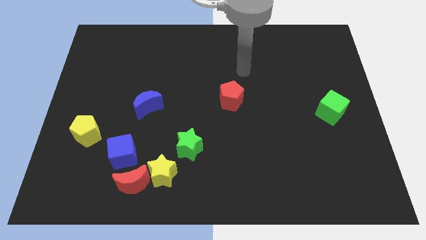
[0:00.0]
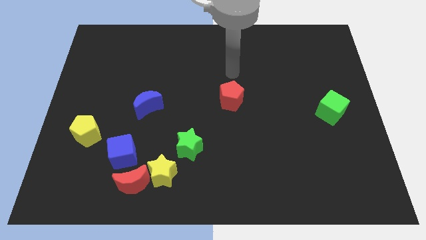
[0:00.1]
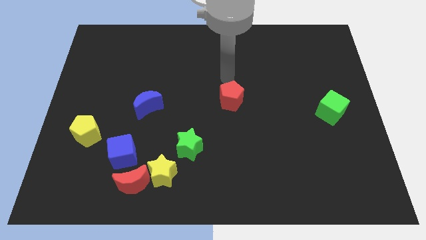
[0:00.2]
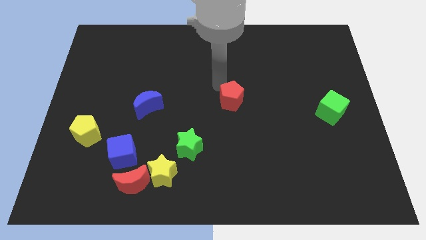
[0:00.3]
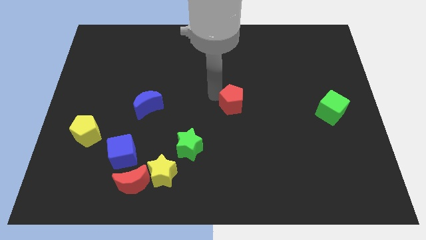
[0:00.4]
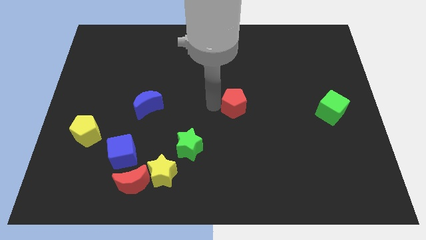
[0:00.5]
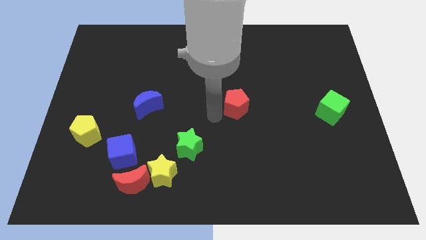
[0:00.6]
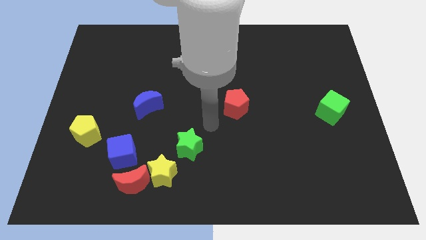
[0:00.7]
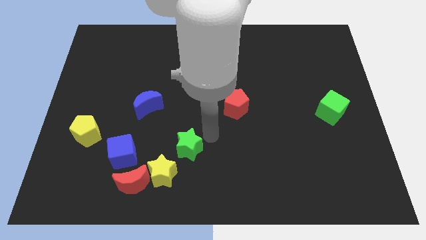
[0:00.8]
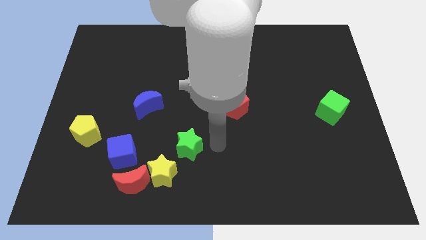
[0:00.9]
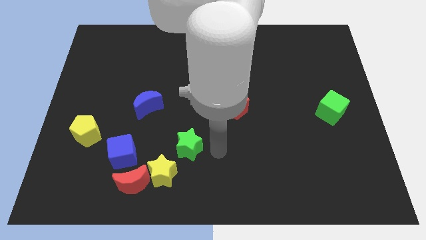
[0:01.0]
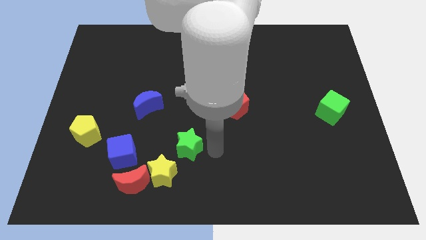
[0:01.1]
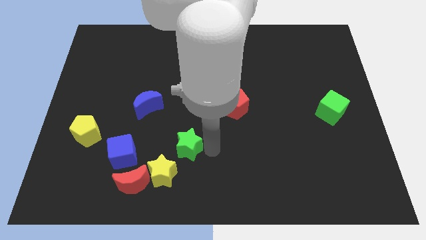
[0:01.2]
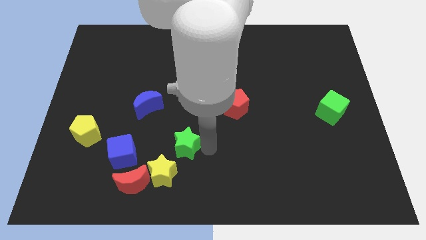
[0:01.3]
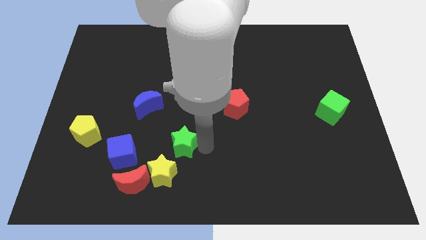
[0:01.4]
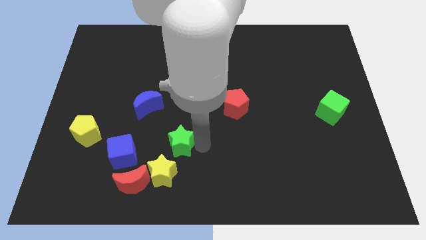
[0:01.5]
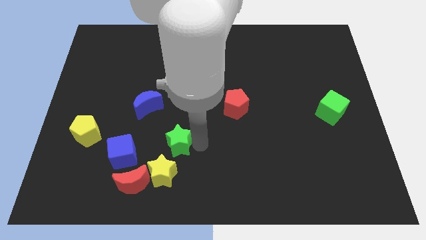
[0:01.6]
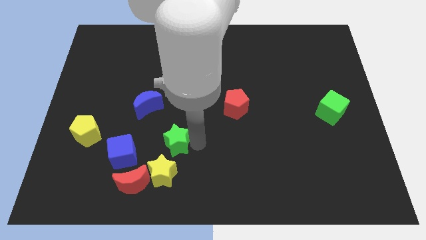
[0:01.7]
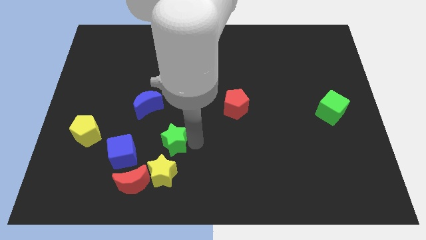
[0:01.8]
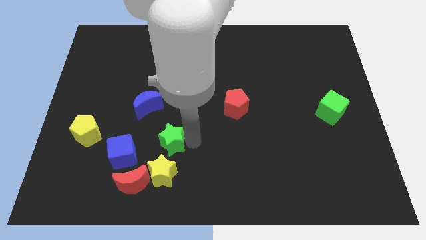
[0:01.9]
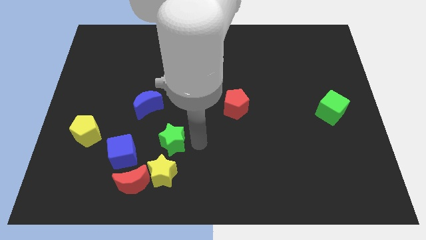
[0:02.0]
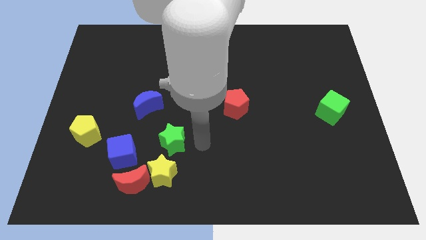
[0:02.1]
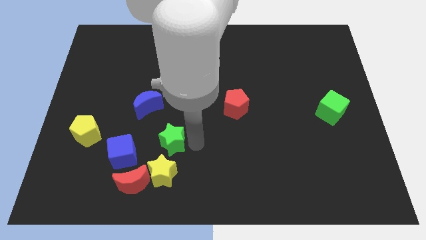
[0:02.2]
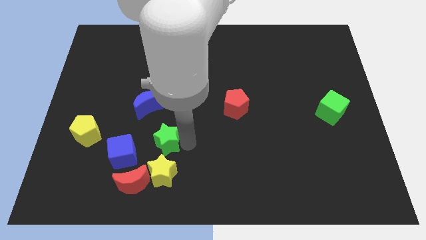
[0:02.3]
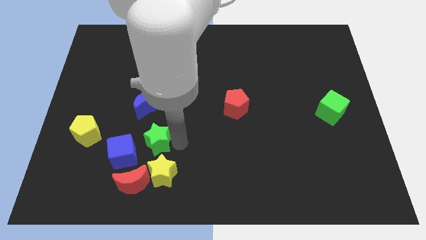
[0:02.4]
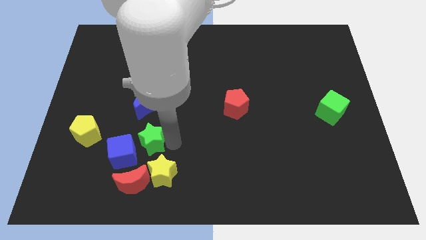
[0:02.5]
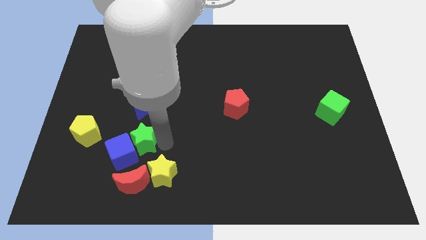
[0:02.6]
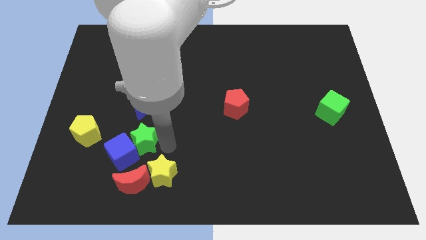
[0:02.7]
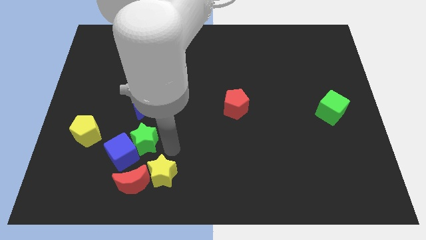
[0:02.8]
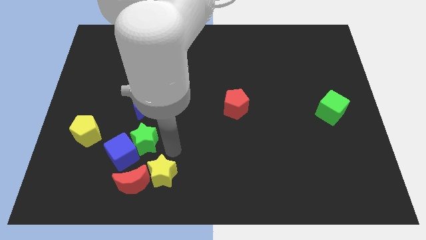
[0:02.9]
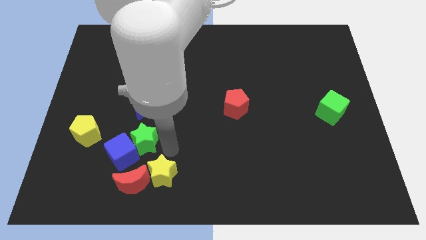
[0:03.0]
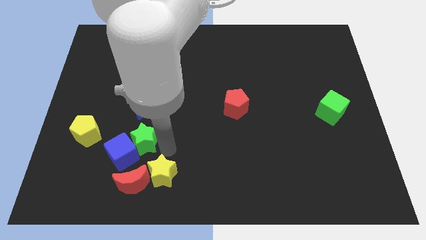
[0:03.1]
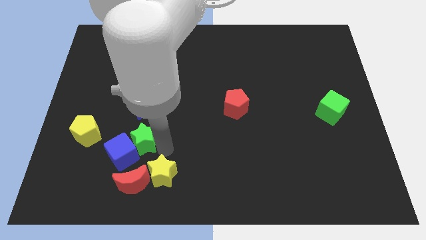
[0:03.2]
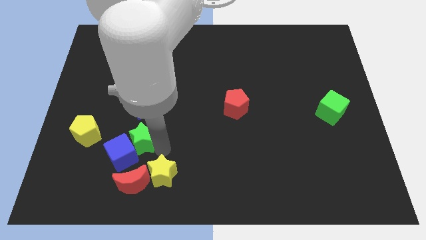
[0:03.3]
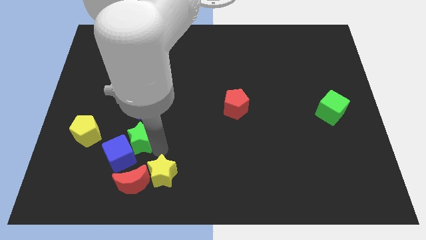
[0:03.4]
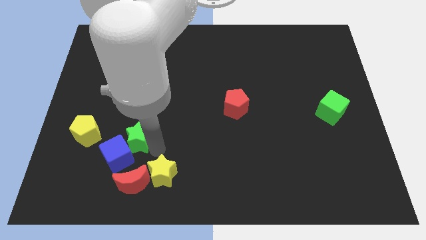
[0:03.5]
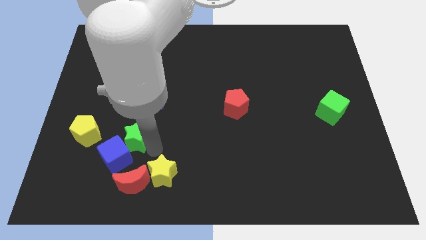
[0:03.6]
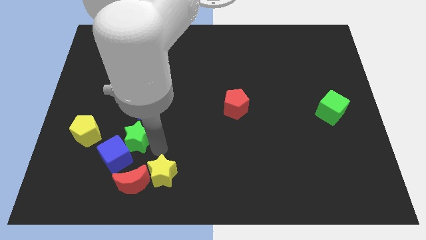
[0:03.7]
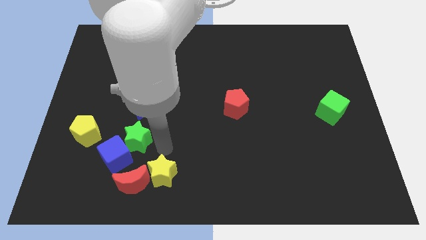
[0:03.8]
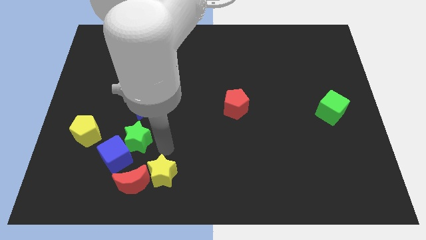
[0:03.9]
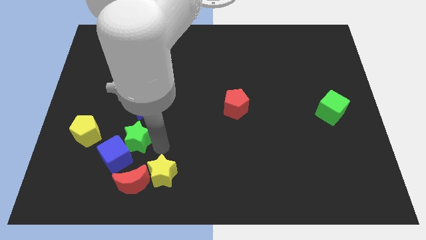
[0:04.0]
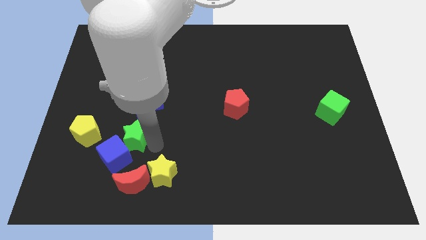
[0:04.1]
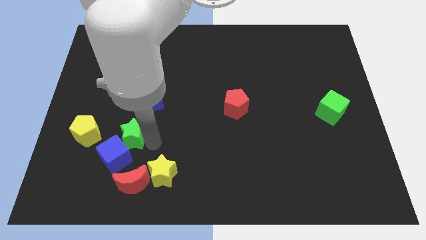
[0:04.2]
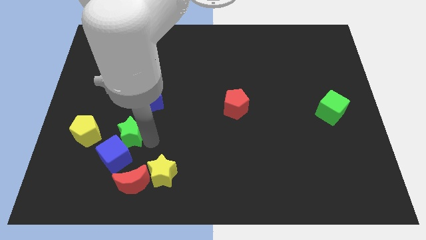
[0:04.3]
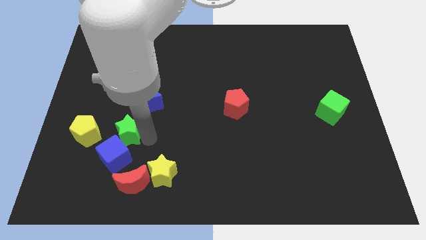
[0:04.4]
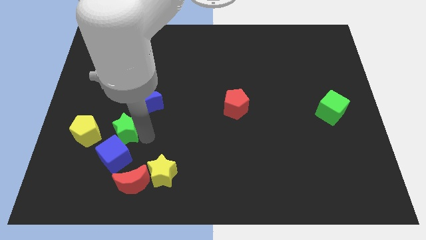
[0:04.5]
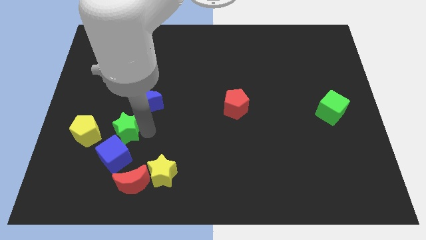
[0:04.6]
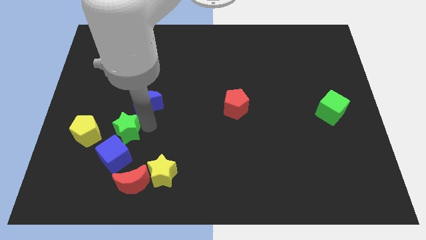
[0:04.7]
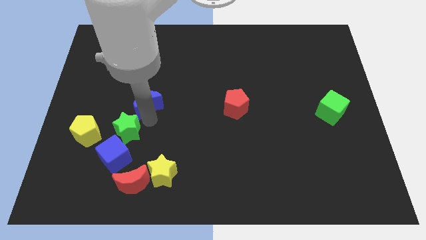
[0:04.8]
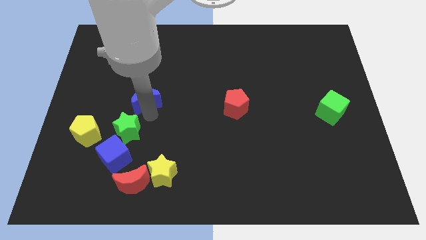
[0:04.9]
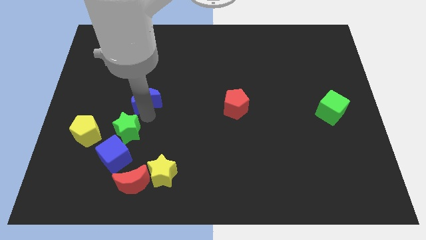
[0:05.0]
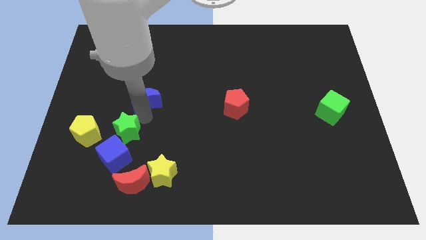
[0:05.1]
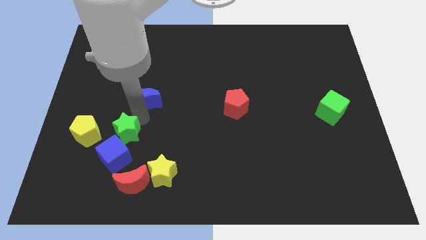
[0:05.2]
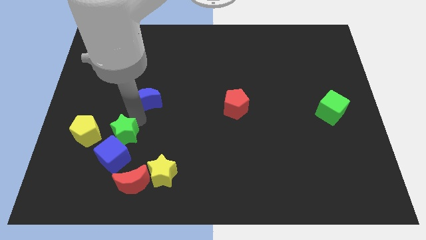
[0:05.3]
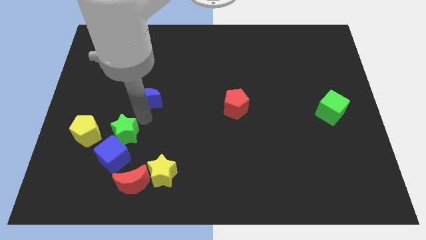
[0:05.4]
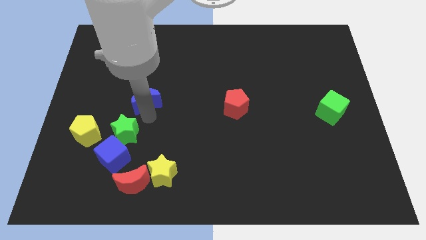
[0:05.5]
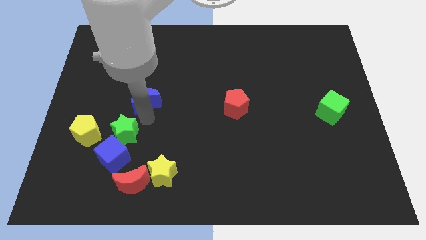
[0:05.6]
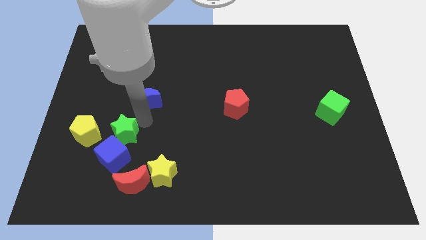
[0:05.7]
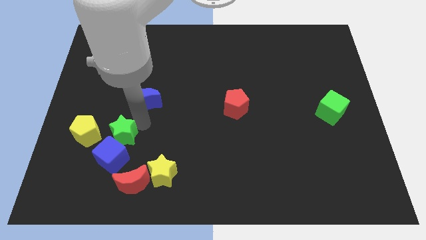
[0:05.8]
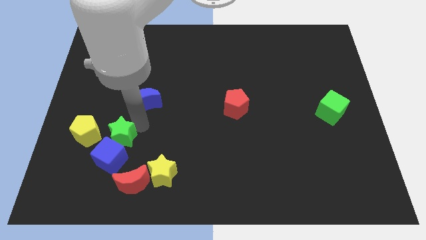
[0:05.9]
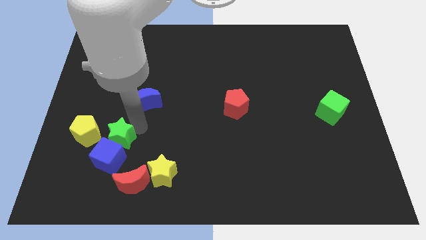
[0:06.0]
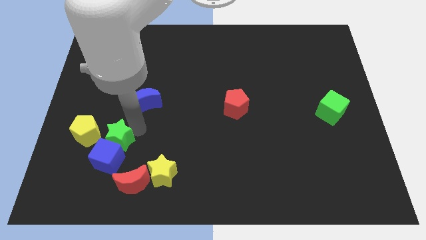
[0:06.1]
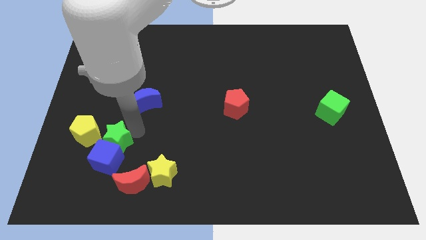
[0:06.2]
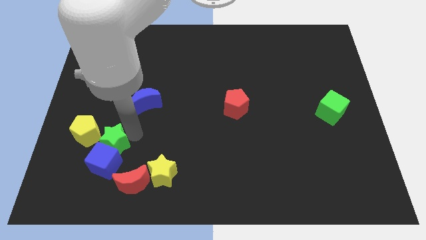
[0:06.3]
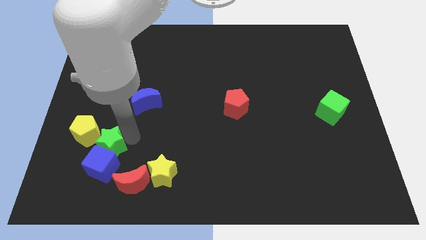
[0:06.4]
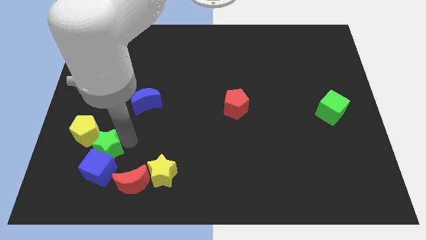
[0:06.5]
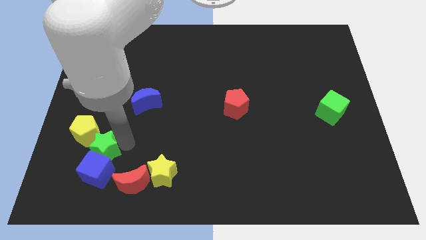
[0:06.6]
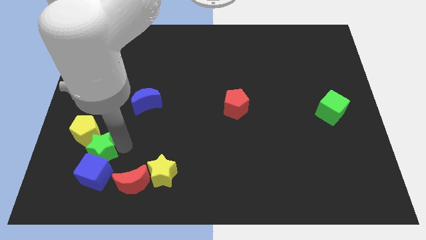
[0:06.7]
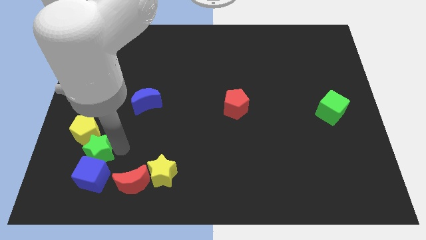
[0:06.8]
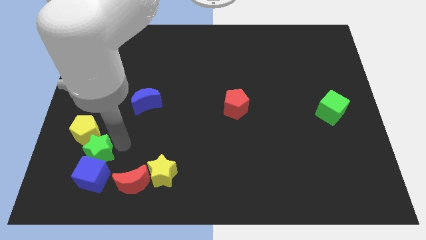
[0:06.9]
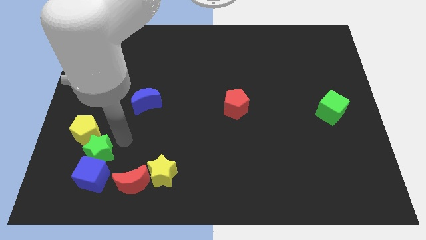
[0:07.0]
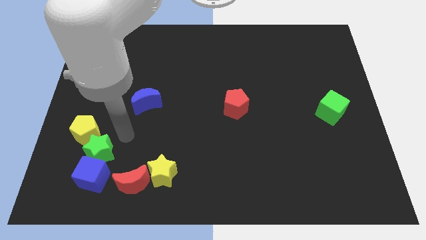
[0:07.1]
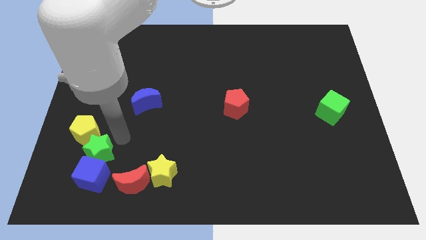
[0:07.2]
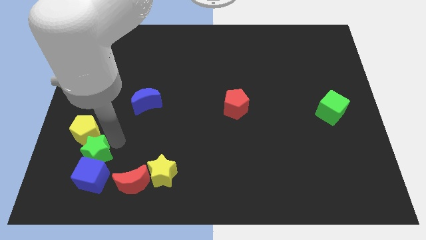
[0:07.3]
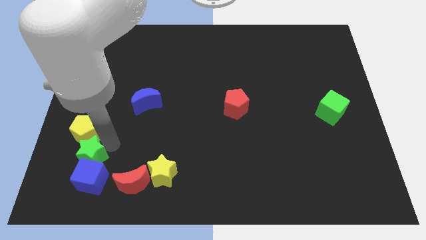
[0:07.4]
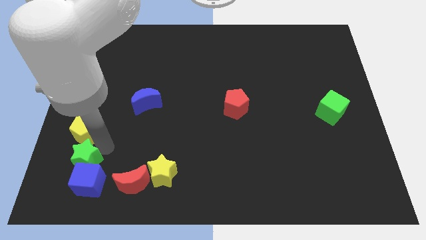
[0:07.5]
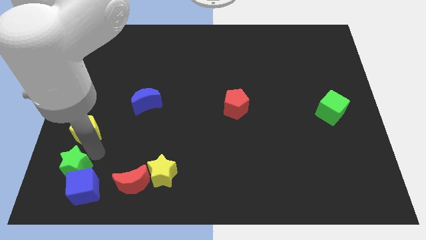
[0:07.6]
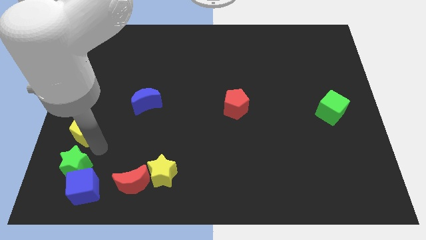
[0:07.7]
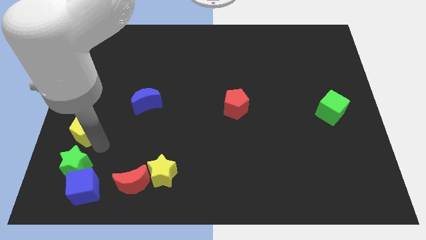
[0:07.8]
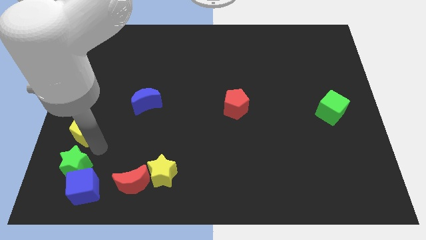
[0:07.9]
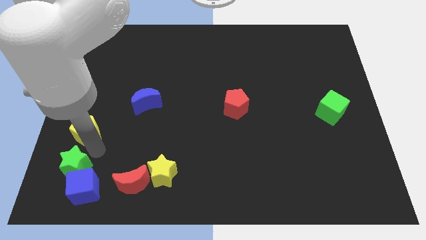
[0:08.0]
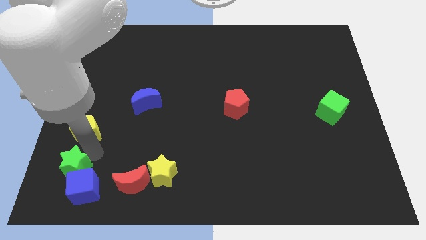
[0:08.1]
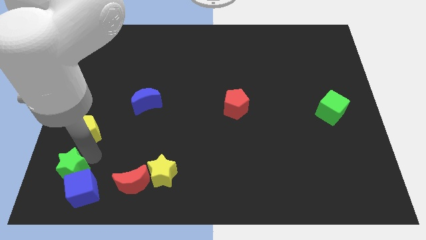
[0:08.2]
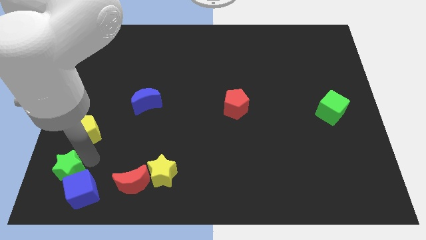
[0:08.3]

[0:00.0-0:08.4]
move the green star to the lower left corner
